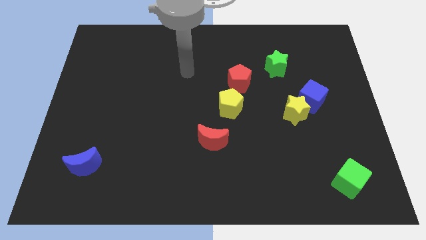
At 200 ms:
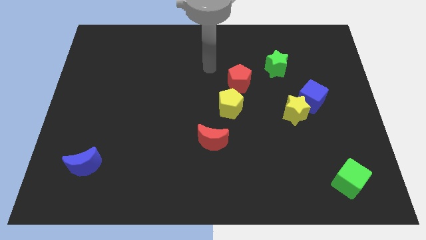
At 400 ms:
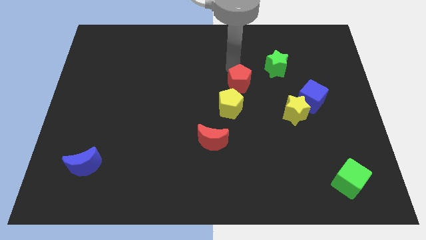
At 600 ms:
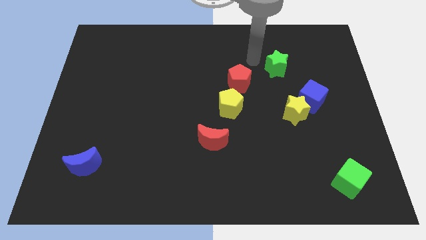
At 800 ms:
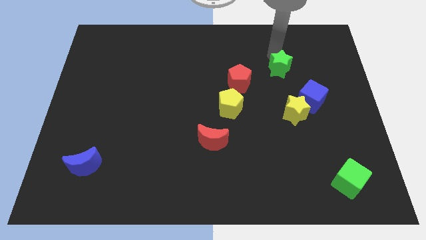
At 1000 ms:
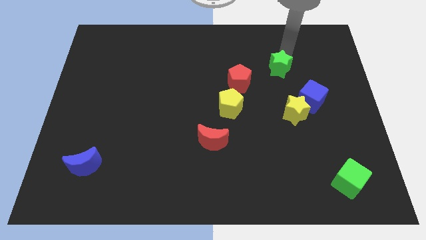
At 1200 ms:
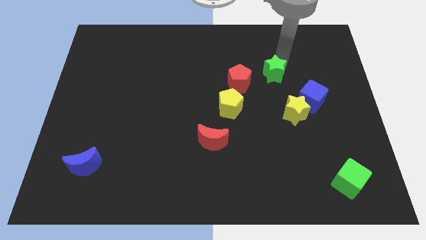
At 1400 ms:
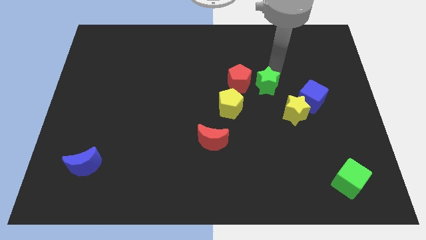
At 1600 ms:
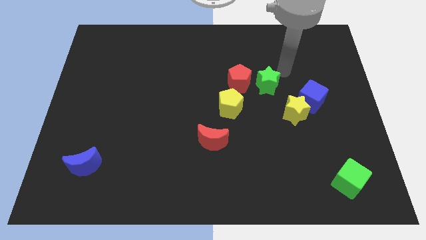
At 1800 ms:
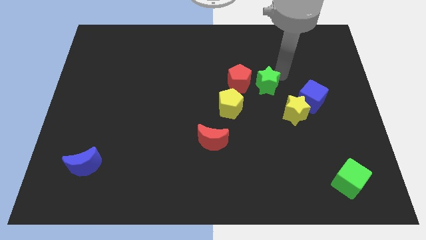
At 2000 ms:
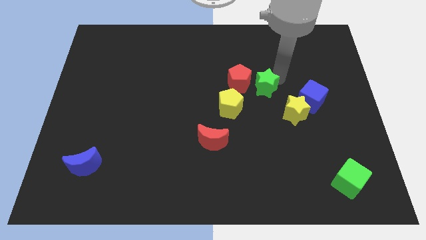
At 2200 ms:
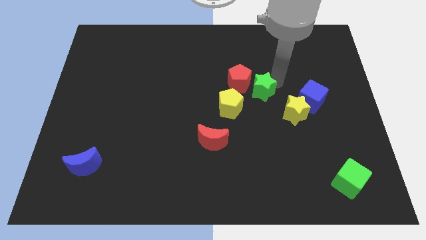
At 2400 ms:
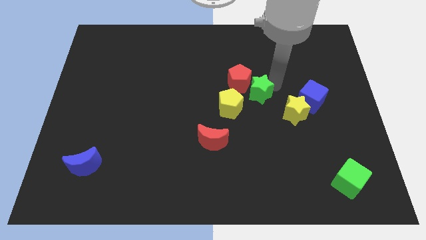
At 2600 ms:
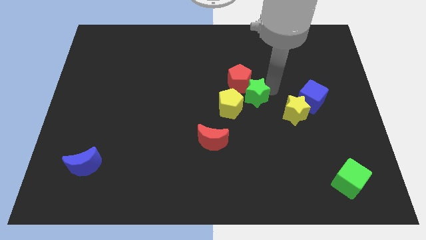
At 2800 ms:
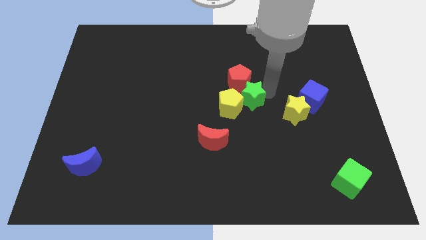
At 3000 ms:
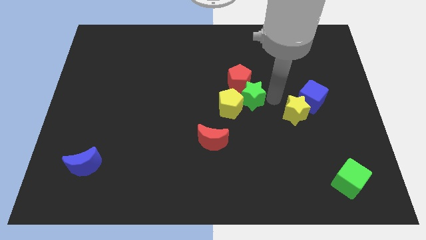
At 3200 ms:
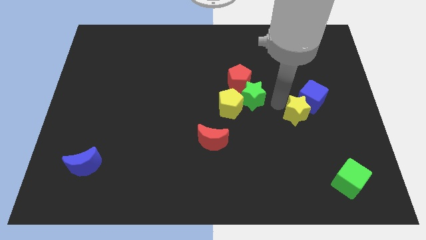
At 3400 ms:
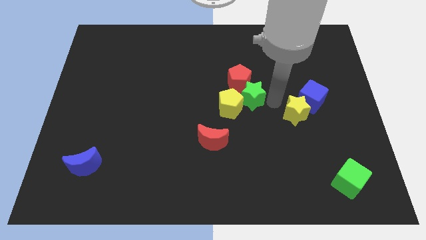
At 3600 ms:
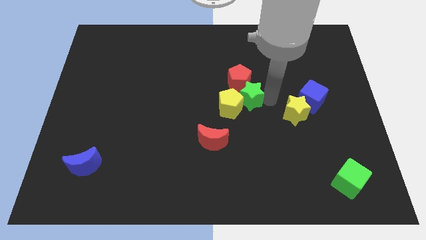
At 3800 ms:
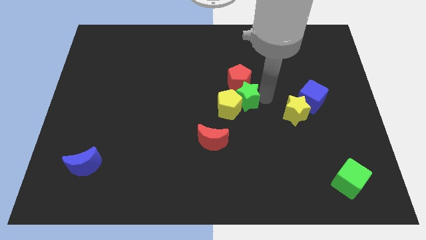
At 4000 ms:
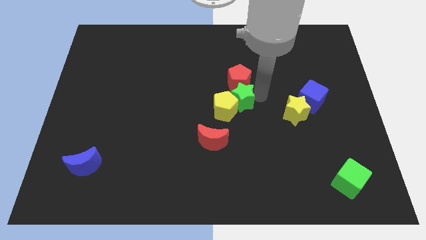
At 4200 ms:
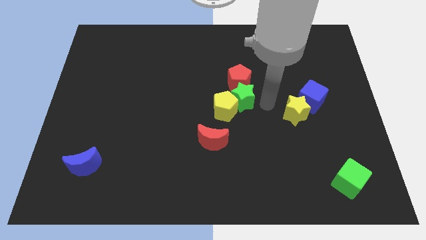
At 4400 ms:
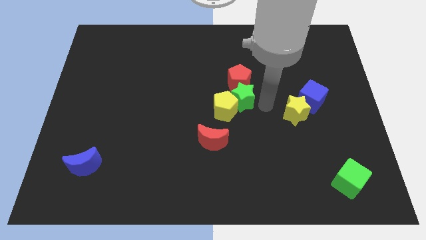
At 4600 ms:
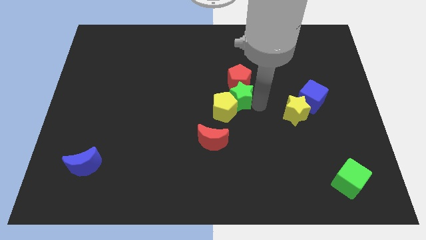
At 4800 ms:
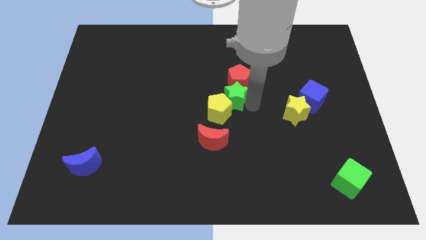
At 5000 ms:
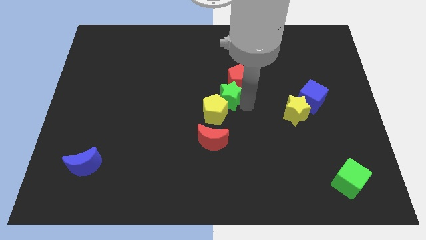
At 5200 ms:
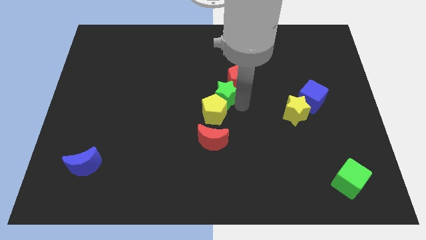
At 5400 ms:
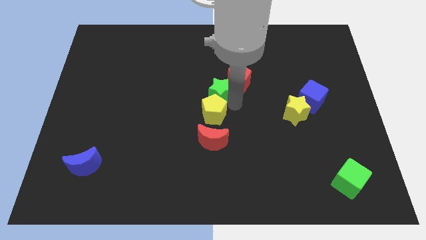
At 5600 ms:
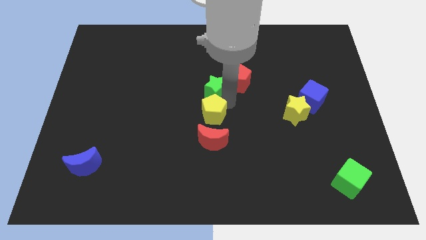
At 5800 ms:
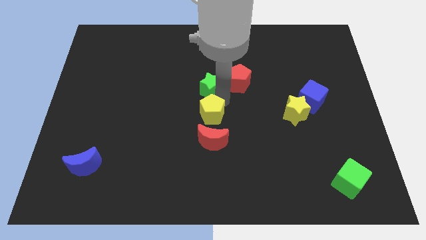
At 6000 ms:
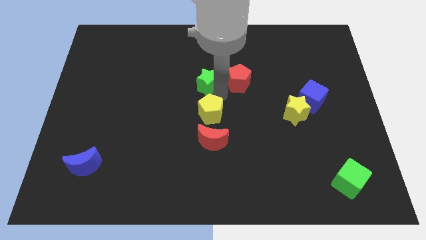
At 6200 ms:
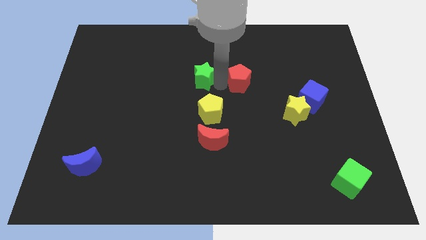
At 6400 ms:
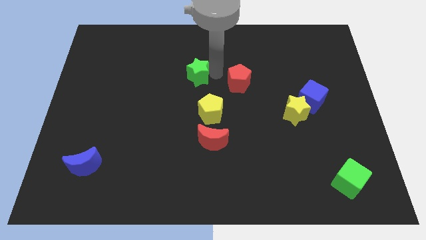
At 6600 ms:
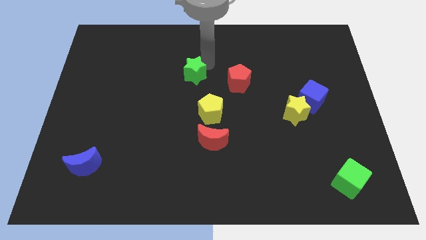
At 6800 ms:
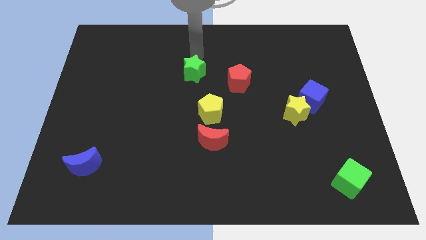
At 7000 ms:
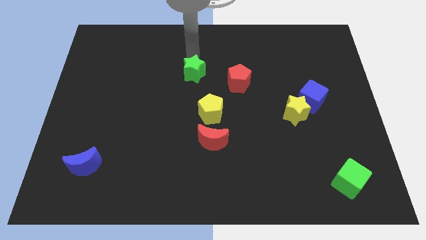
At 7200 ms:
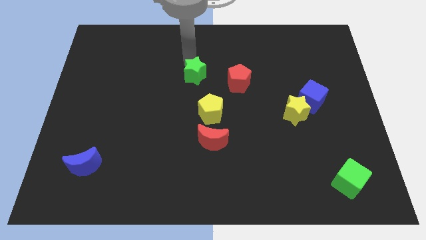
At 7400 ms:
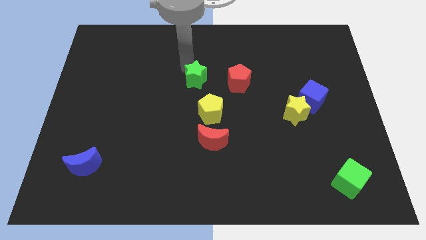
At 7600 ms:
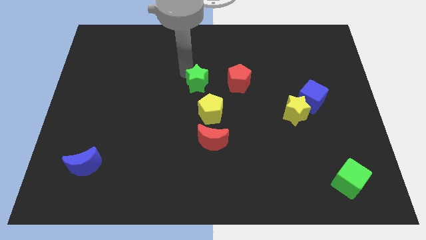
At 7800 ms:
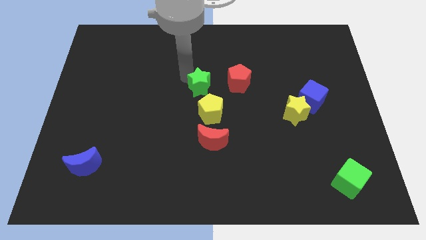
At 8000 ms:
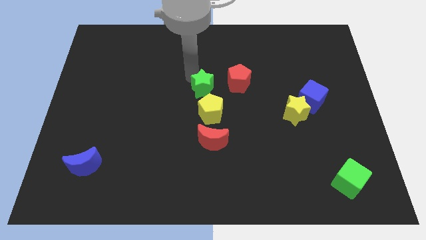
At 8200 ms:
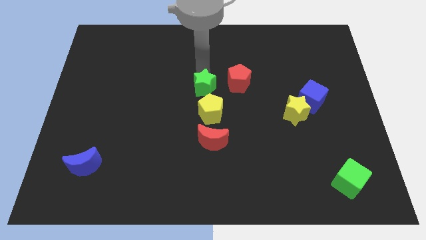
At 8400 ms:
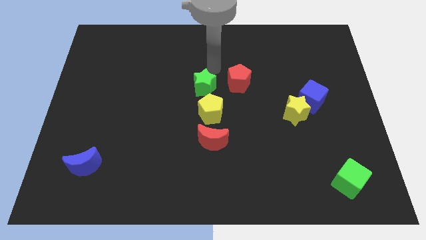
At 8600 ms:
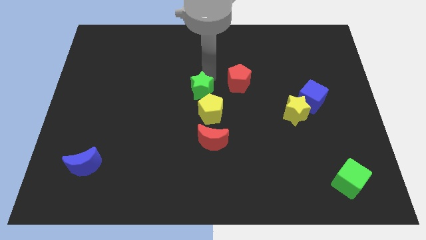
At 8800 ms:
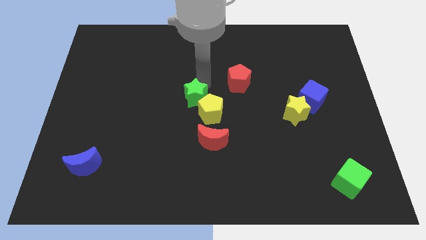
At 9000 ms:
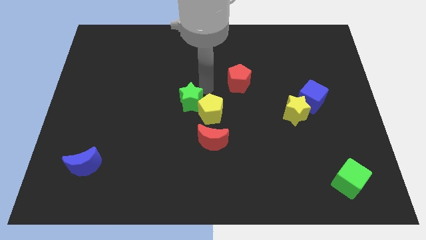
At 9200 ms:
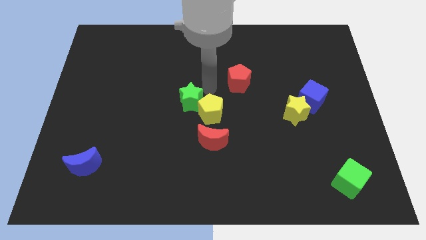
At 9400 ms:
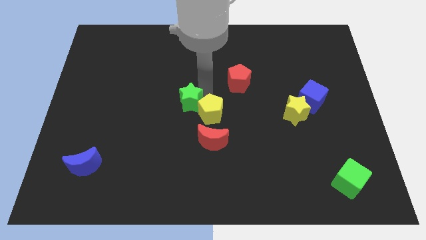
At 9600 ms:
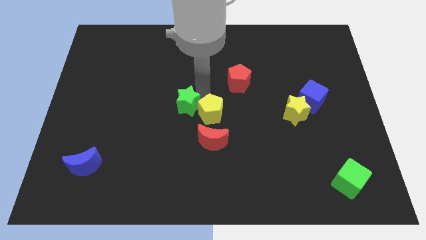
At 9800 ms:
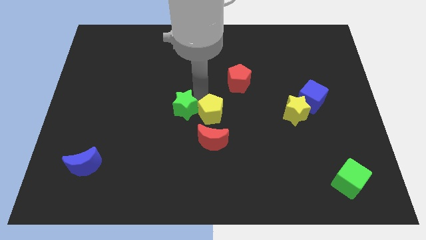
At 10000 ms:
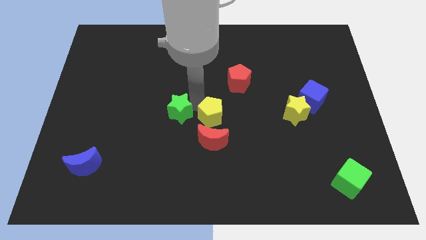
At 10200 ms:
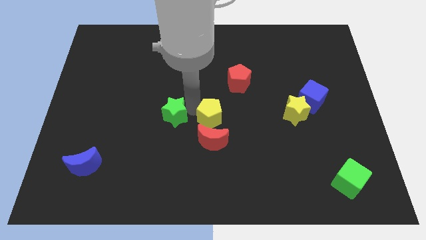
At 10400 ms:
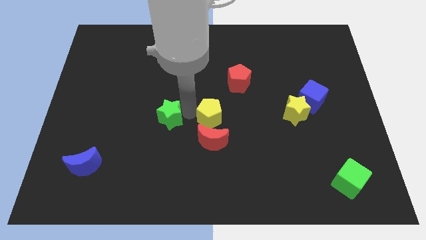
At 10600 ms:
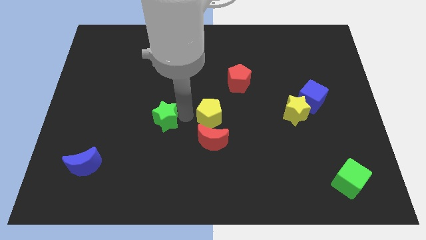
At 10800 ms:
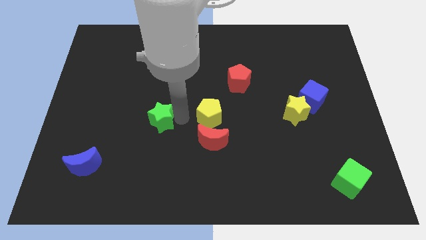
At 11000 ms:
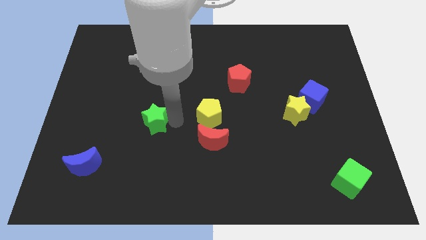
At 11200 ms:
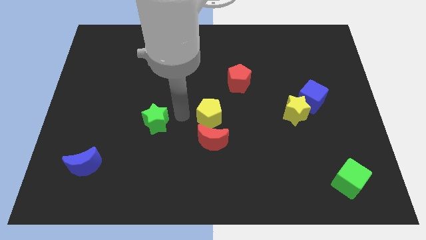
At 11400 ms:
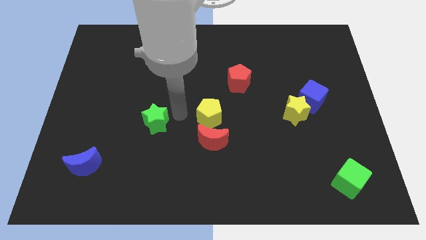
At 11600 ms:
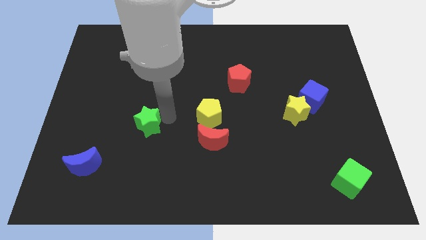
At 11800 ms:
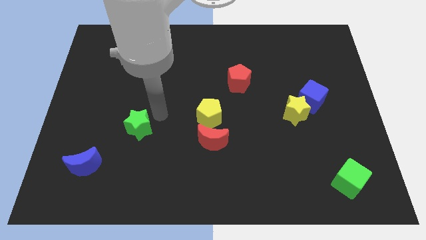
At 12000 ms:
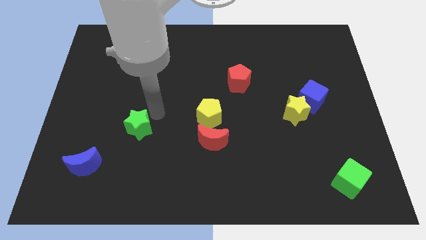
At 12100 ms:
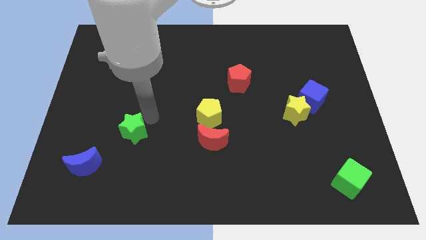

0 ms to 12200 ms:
slide the green star to the top right of the blue moon

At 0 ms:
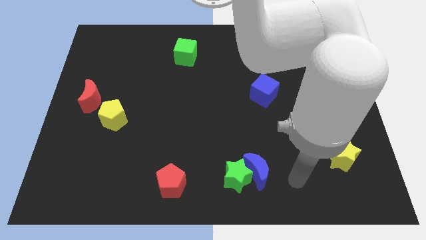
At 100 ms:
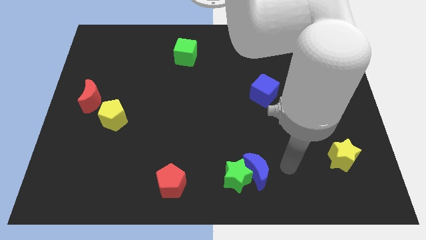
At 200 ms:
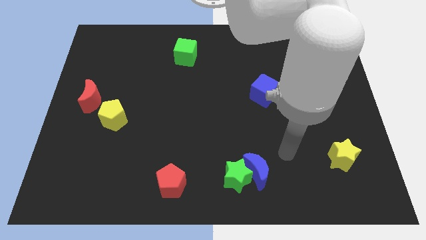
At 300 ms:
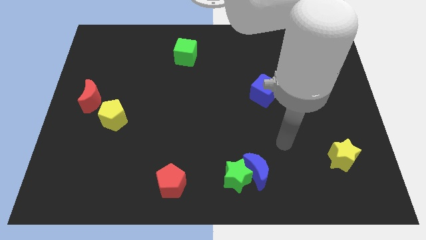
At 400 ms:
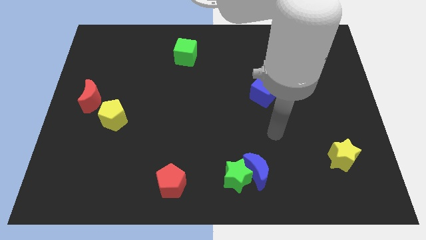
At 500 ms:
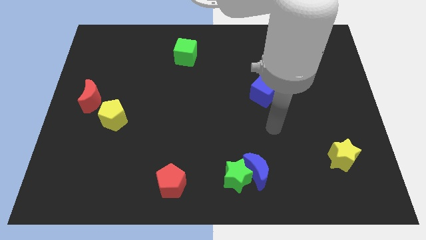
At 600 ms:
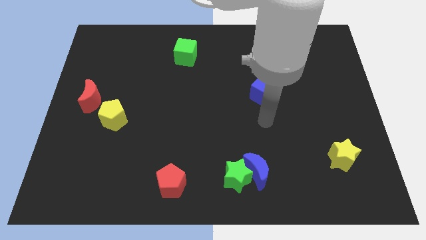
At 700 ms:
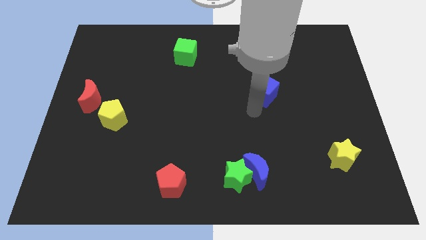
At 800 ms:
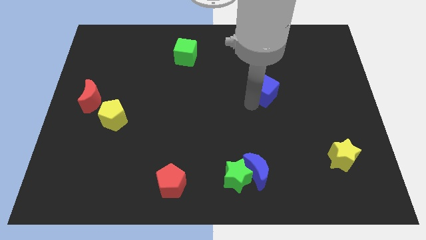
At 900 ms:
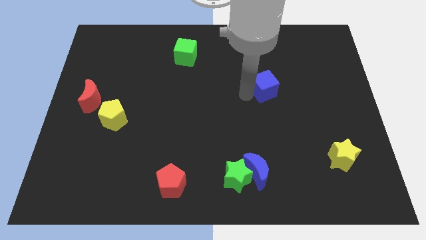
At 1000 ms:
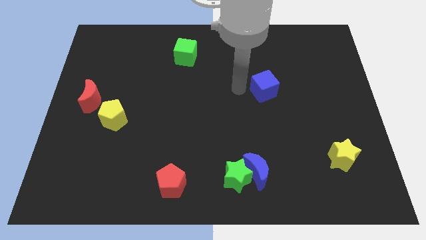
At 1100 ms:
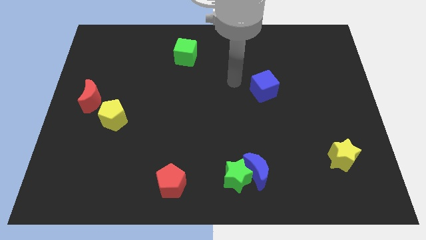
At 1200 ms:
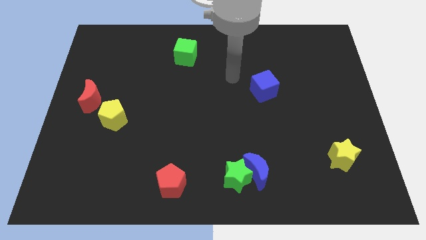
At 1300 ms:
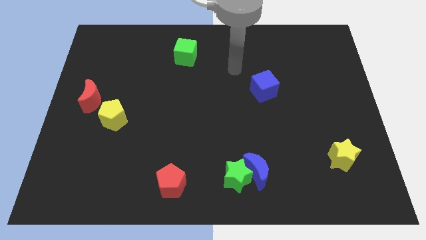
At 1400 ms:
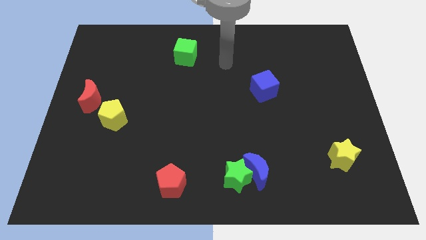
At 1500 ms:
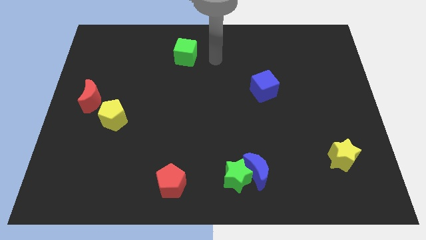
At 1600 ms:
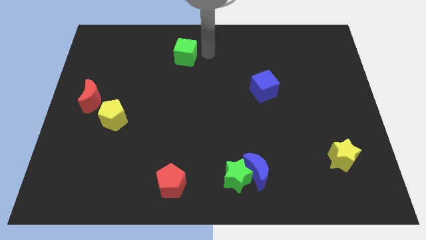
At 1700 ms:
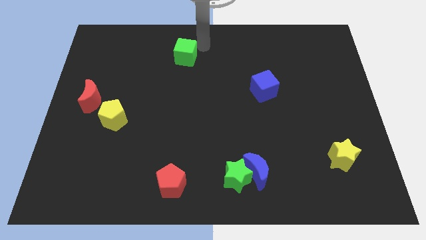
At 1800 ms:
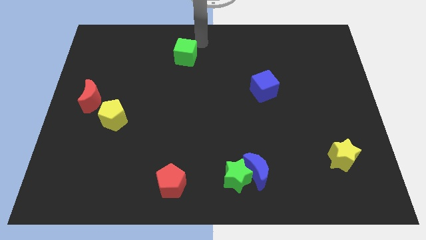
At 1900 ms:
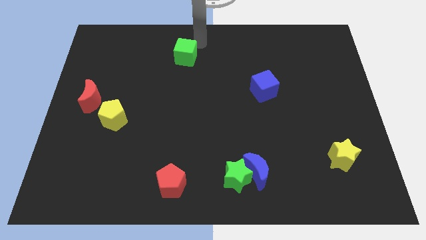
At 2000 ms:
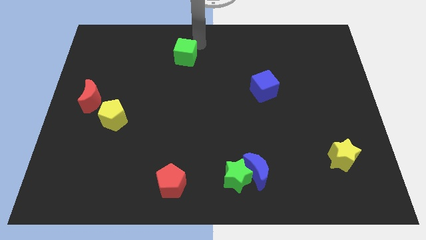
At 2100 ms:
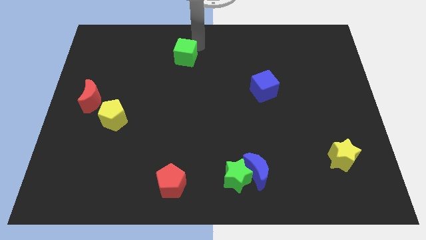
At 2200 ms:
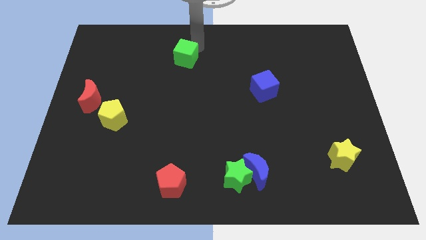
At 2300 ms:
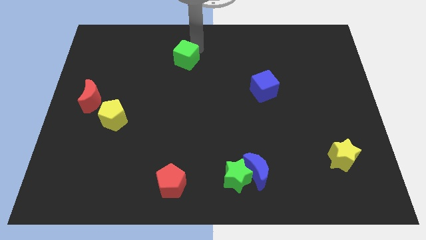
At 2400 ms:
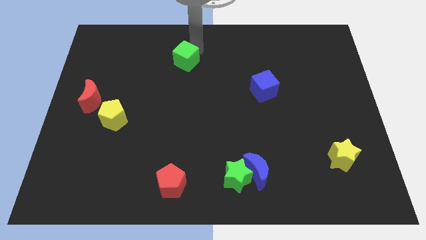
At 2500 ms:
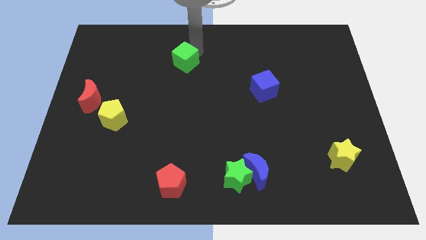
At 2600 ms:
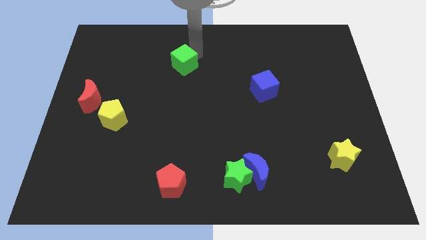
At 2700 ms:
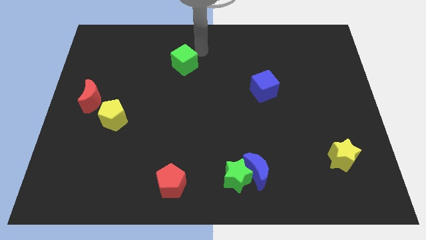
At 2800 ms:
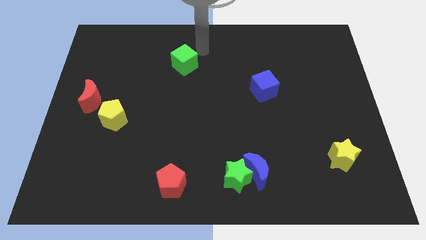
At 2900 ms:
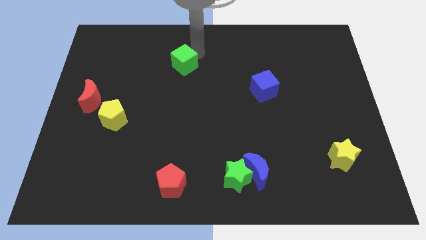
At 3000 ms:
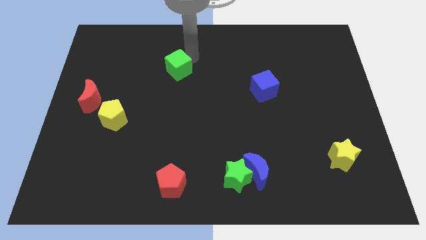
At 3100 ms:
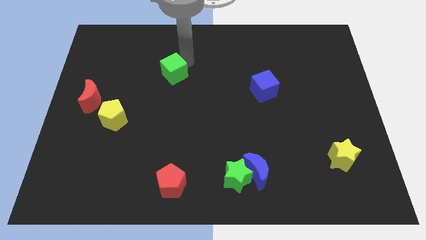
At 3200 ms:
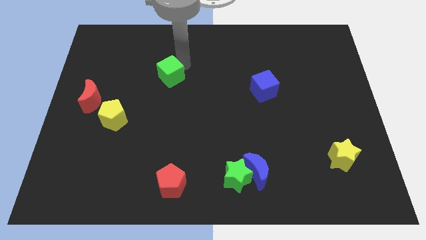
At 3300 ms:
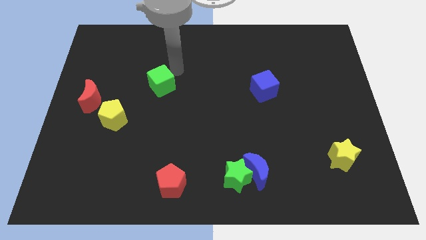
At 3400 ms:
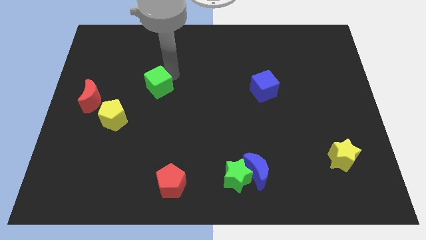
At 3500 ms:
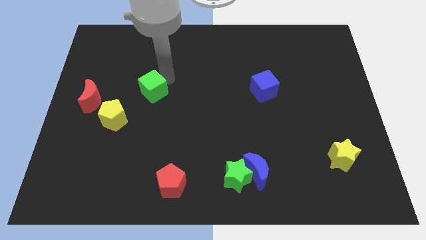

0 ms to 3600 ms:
push the green cube right of the red moon
